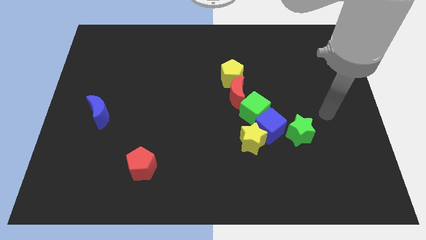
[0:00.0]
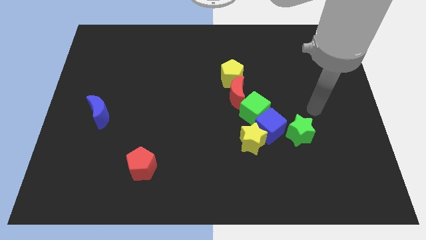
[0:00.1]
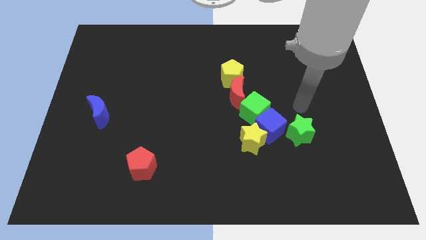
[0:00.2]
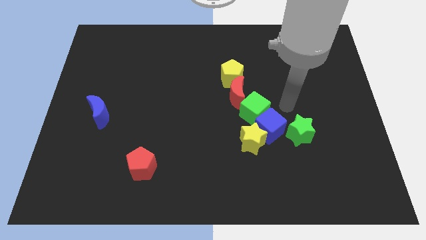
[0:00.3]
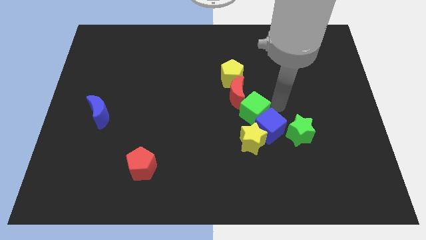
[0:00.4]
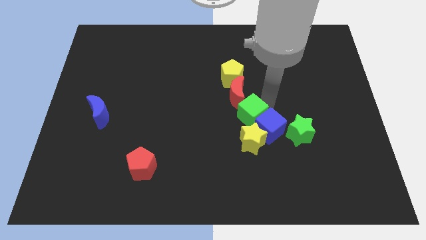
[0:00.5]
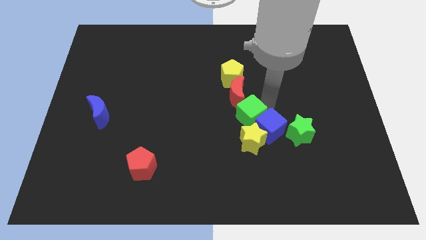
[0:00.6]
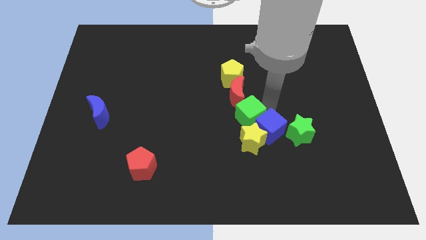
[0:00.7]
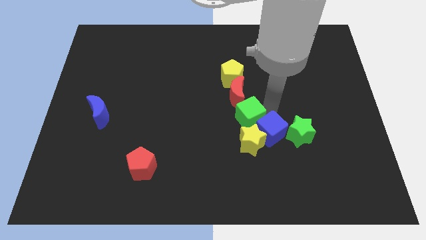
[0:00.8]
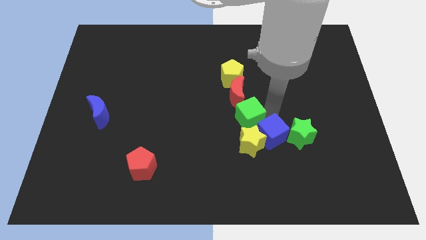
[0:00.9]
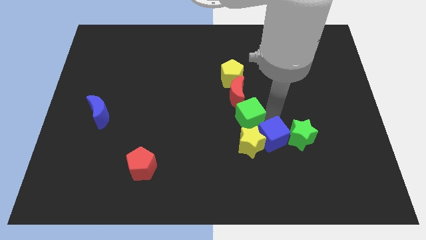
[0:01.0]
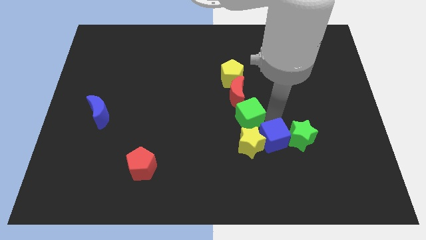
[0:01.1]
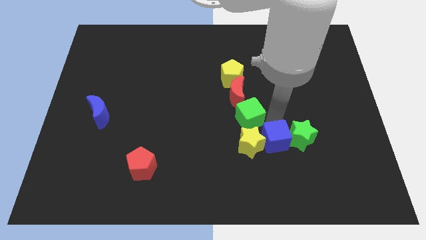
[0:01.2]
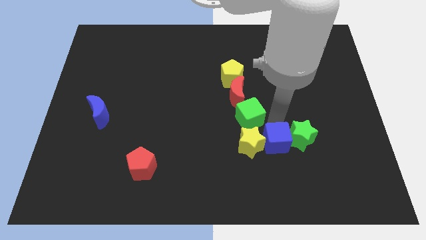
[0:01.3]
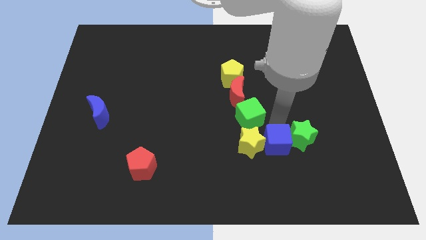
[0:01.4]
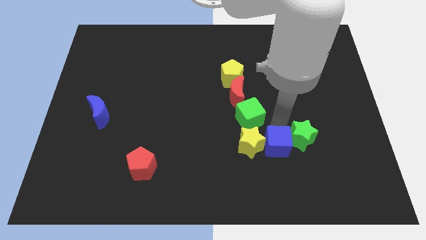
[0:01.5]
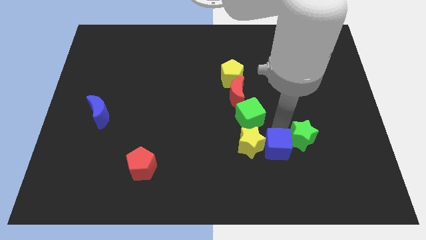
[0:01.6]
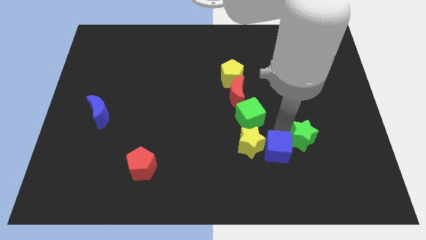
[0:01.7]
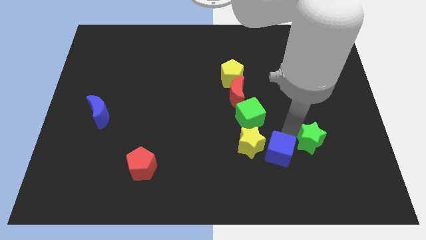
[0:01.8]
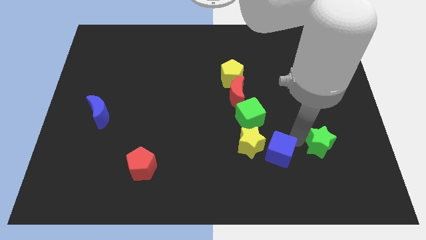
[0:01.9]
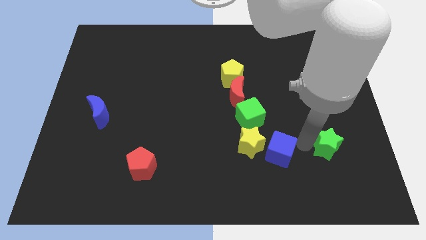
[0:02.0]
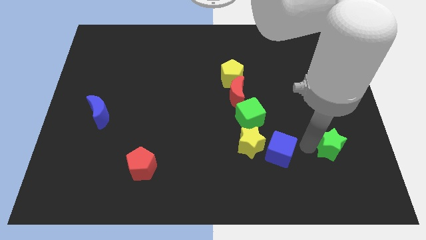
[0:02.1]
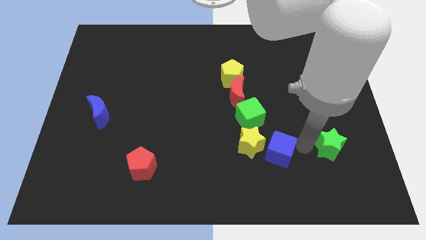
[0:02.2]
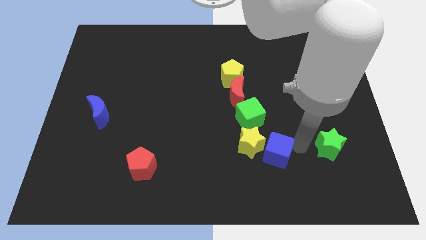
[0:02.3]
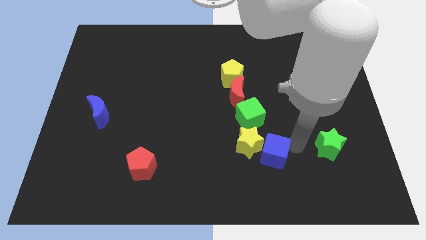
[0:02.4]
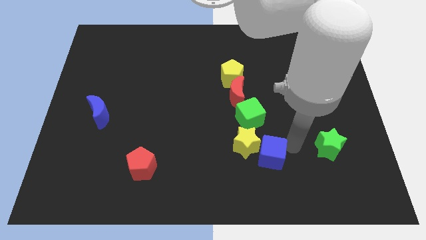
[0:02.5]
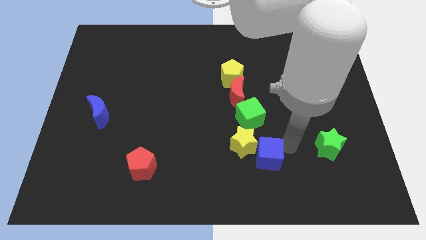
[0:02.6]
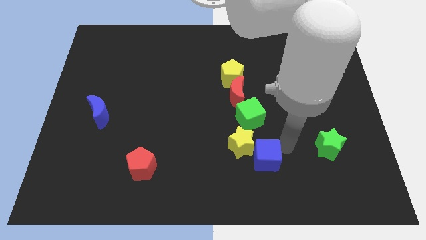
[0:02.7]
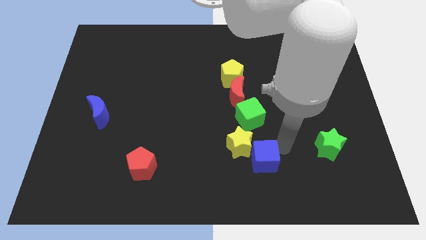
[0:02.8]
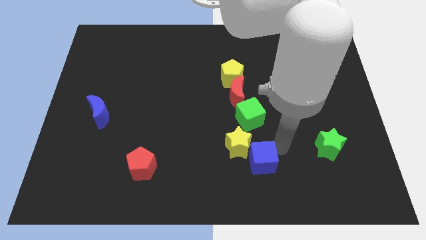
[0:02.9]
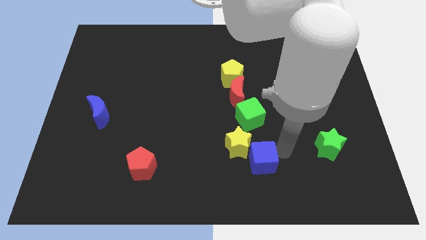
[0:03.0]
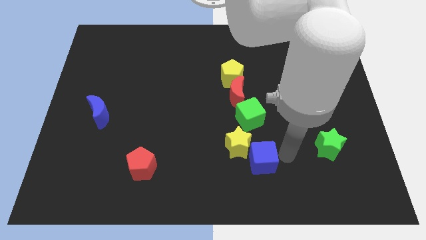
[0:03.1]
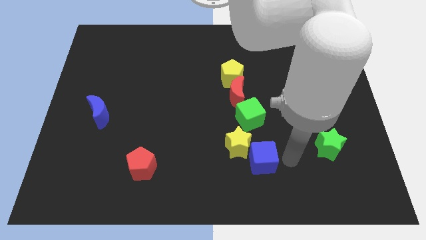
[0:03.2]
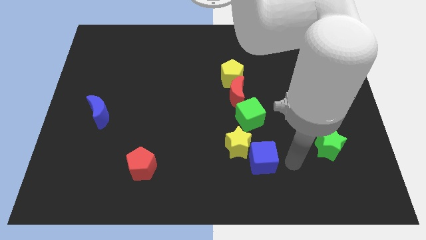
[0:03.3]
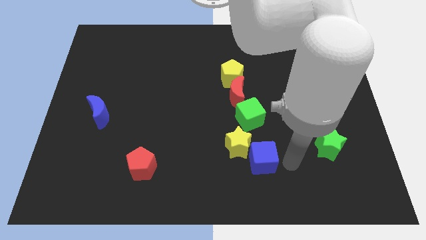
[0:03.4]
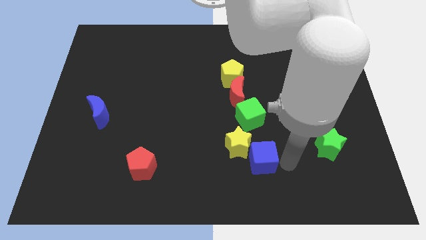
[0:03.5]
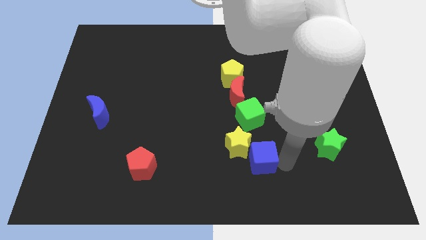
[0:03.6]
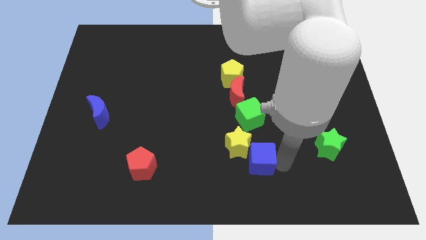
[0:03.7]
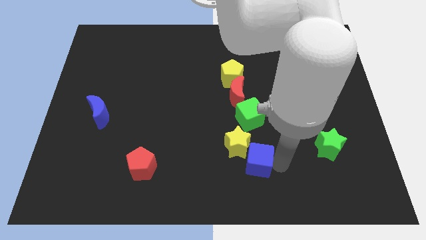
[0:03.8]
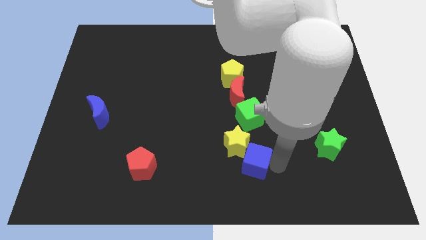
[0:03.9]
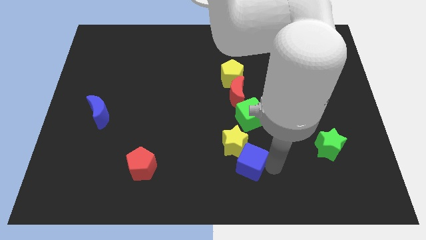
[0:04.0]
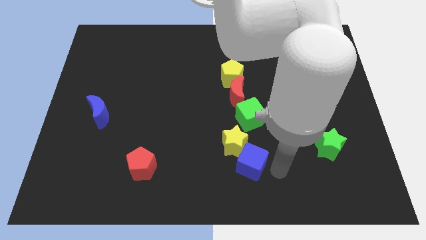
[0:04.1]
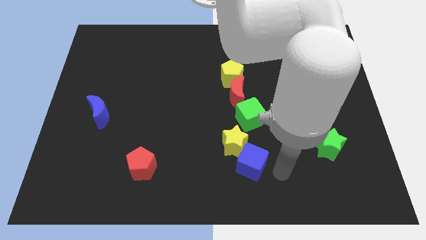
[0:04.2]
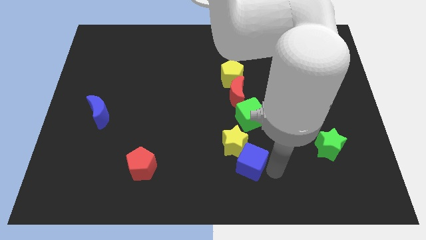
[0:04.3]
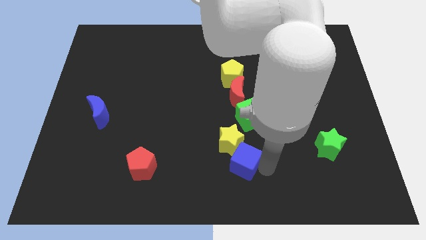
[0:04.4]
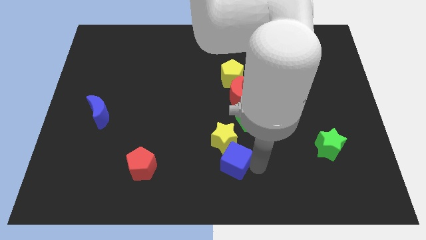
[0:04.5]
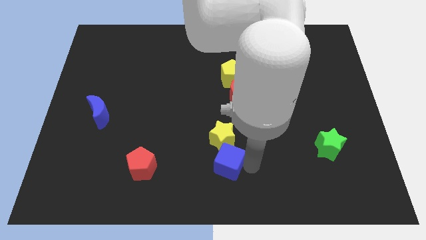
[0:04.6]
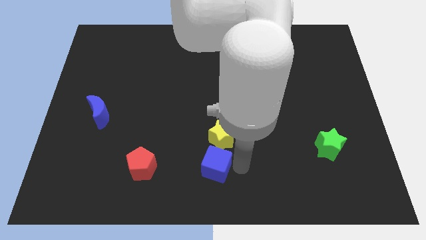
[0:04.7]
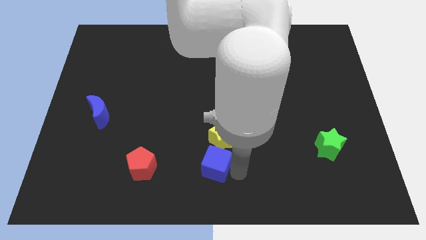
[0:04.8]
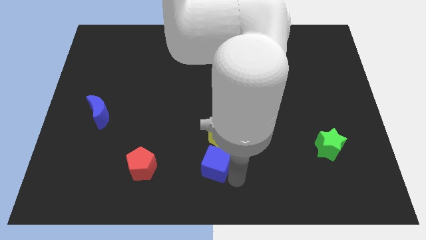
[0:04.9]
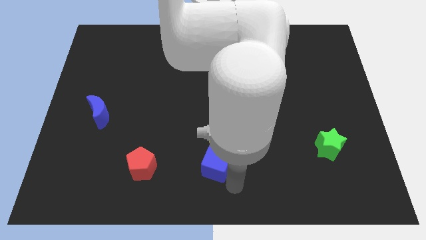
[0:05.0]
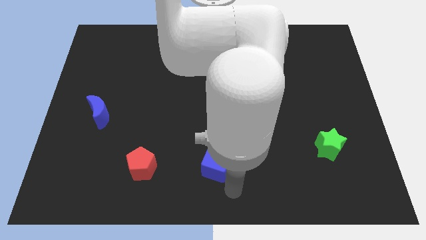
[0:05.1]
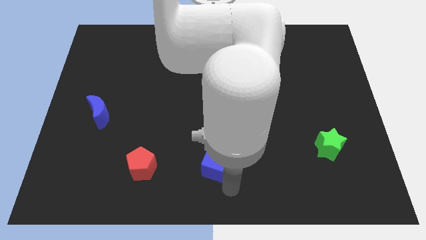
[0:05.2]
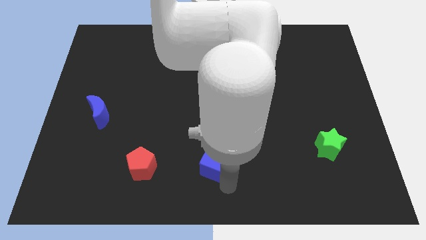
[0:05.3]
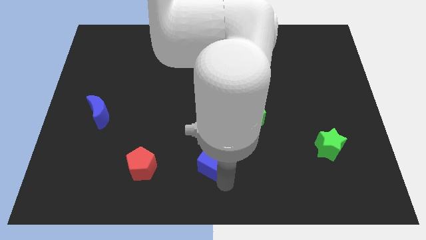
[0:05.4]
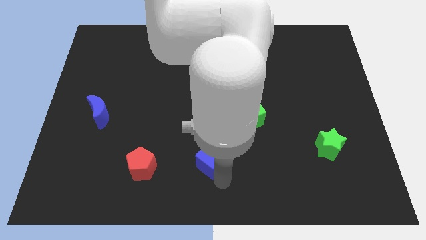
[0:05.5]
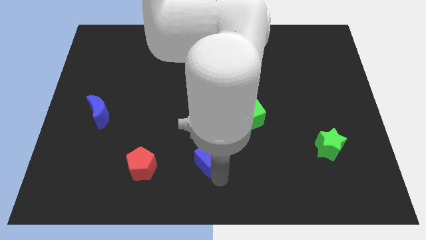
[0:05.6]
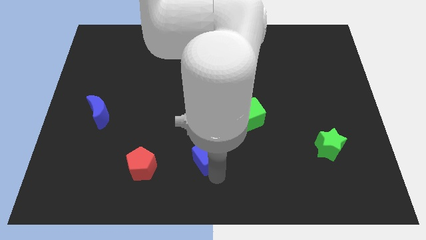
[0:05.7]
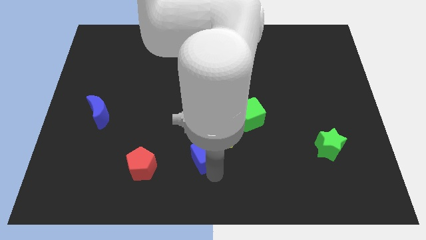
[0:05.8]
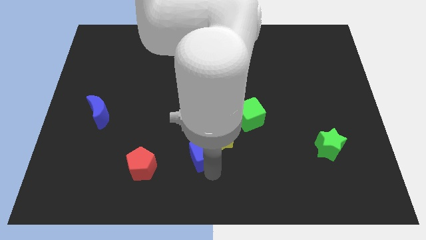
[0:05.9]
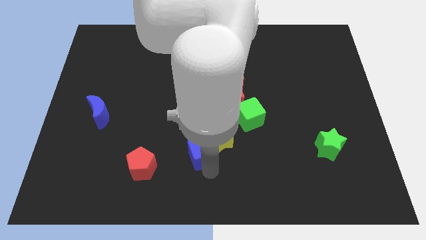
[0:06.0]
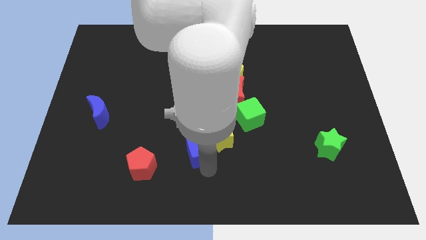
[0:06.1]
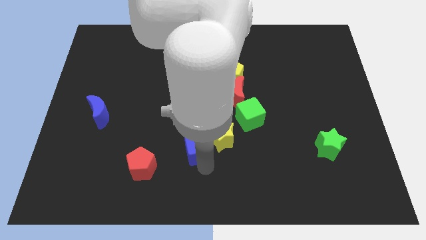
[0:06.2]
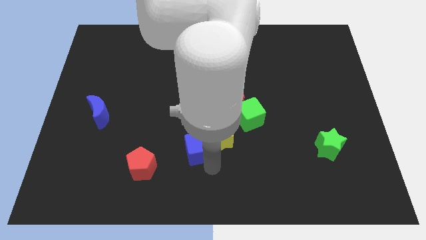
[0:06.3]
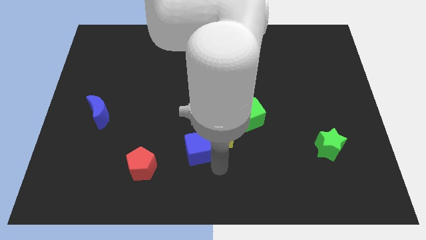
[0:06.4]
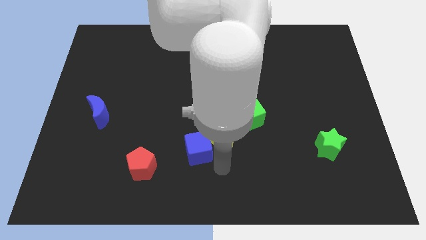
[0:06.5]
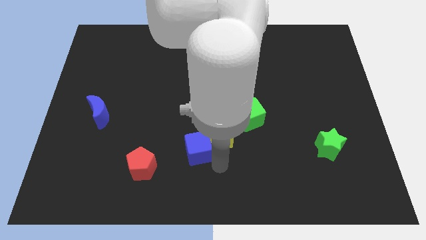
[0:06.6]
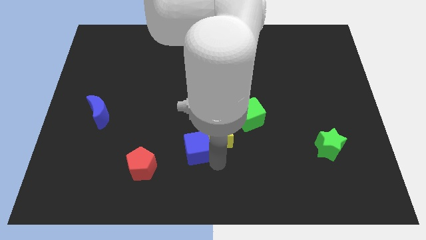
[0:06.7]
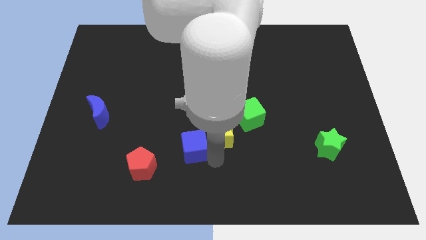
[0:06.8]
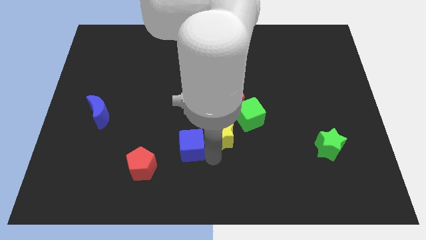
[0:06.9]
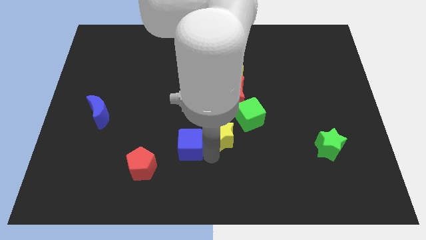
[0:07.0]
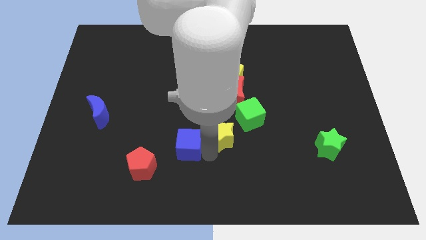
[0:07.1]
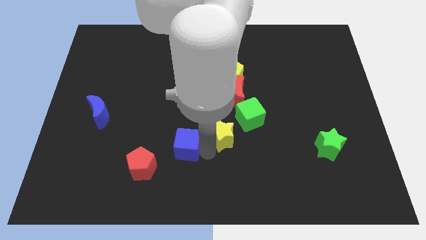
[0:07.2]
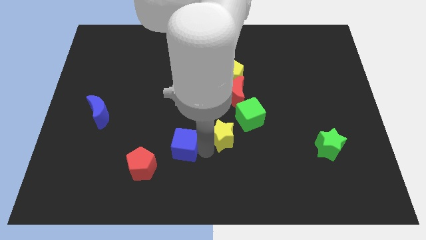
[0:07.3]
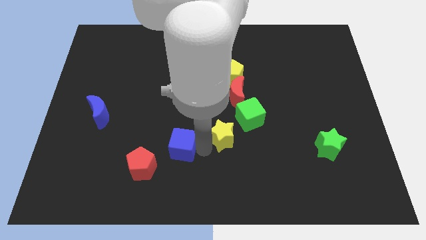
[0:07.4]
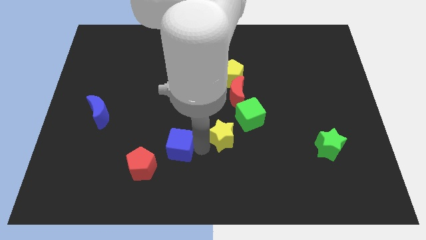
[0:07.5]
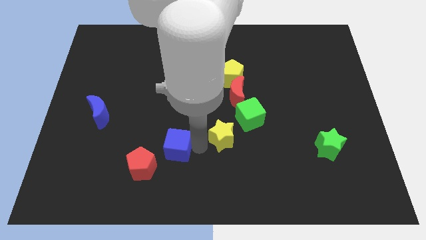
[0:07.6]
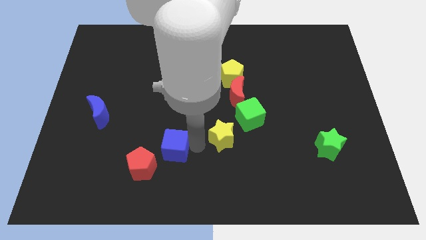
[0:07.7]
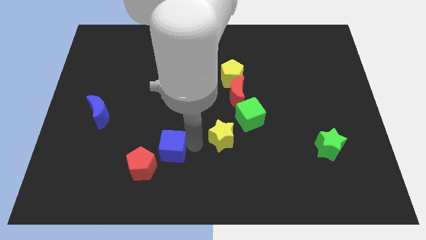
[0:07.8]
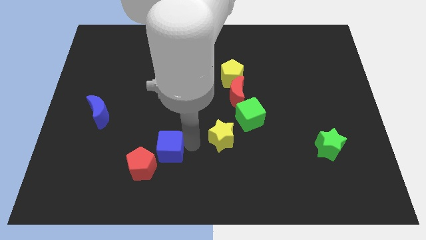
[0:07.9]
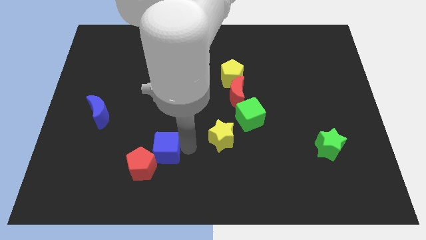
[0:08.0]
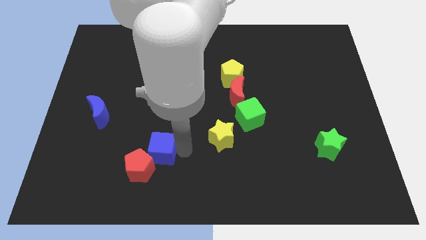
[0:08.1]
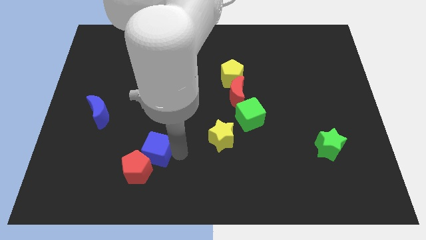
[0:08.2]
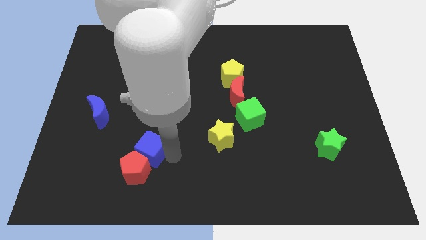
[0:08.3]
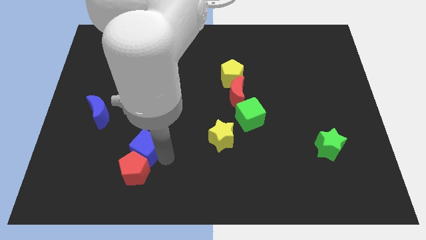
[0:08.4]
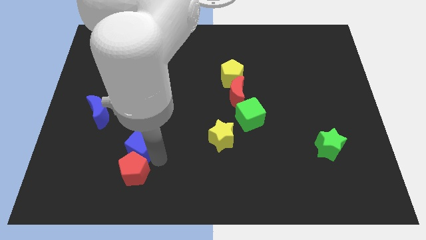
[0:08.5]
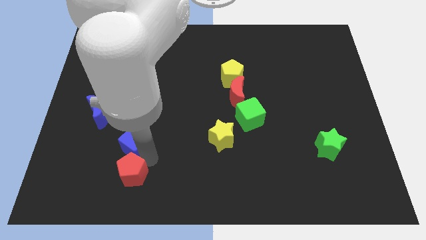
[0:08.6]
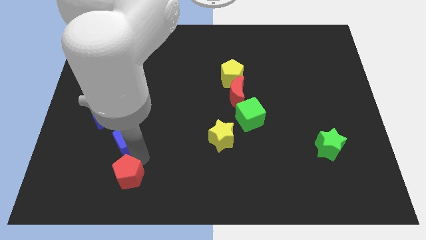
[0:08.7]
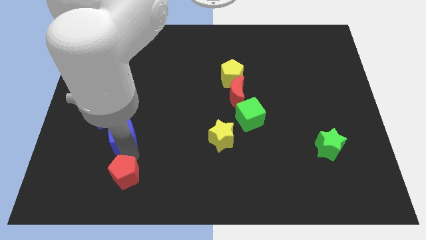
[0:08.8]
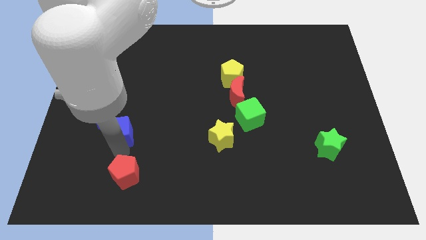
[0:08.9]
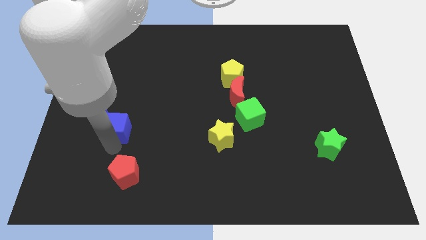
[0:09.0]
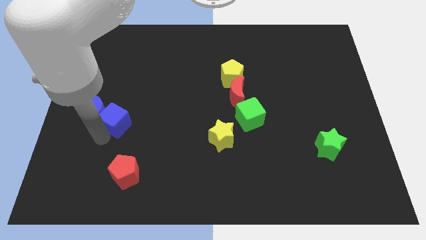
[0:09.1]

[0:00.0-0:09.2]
move the blue cube to the blue moon
